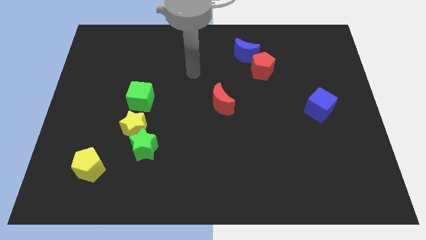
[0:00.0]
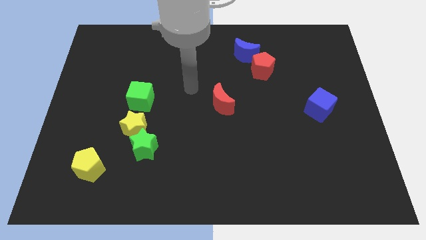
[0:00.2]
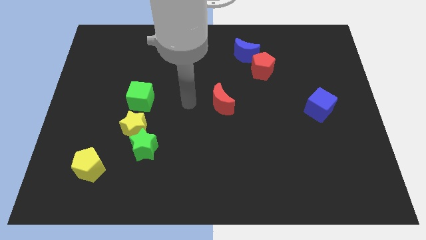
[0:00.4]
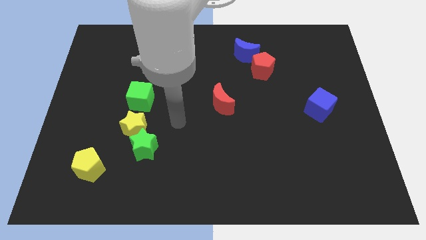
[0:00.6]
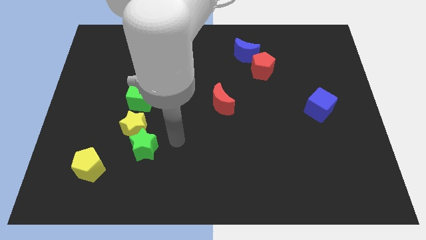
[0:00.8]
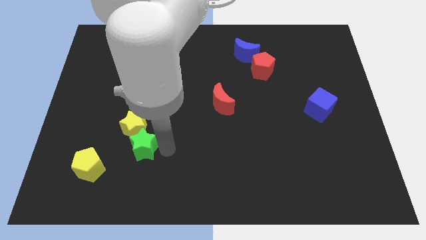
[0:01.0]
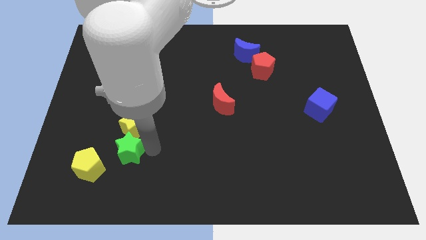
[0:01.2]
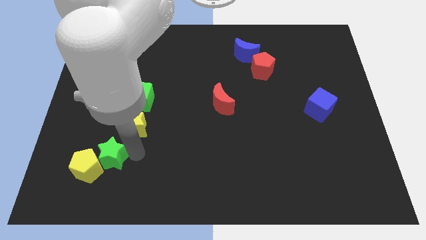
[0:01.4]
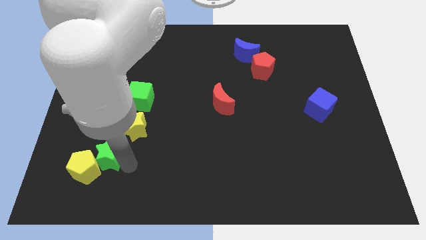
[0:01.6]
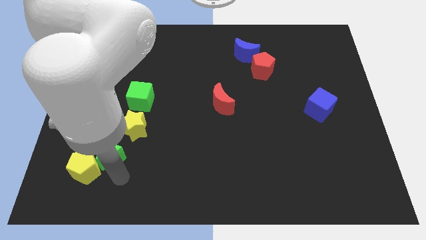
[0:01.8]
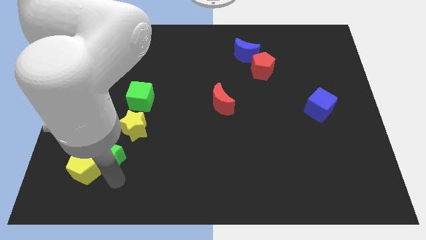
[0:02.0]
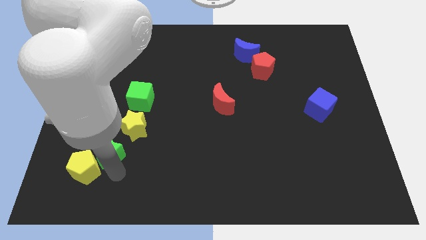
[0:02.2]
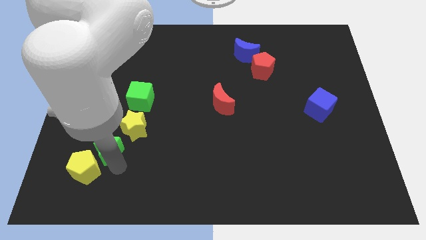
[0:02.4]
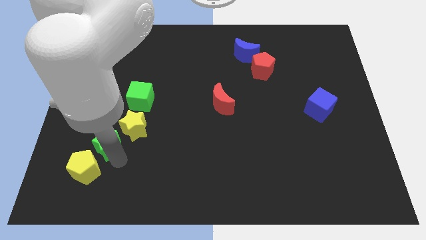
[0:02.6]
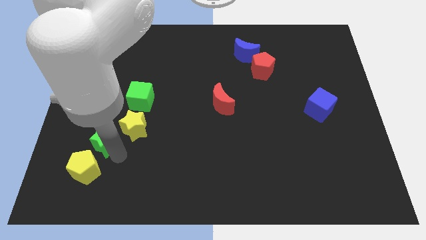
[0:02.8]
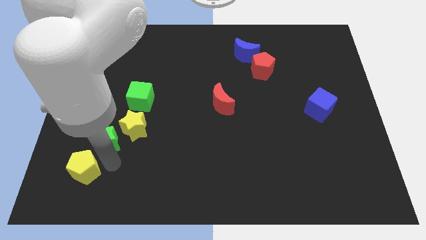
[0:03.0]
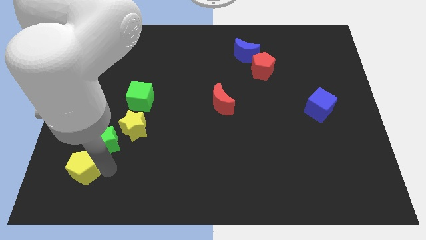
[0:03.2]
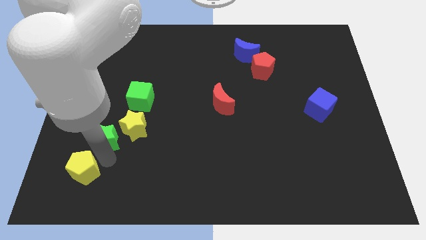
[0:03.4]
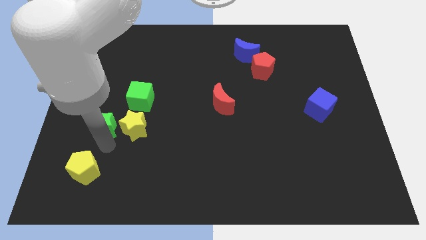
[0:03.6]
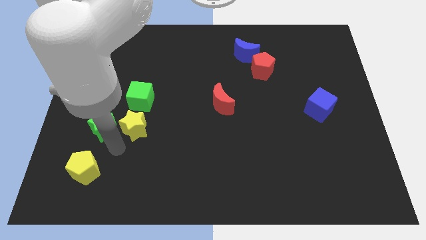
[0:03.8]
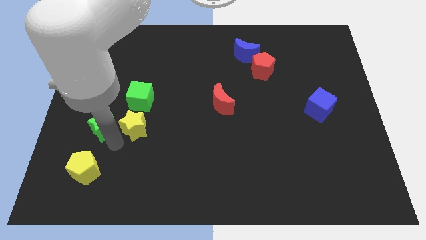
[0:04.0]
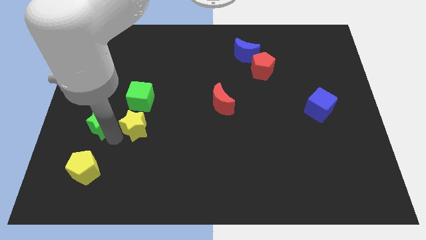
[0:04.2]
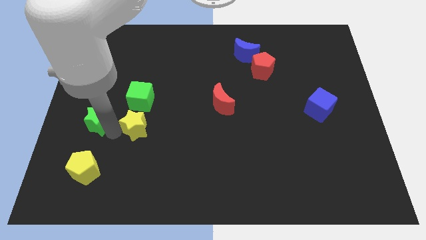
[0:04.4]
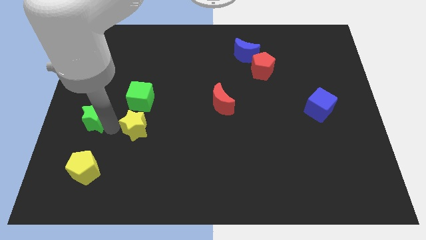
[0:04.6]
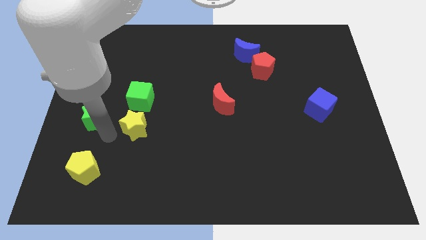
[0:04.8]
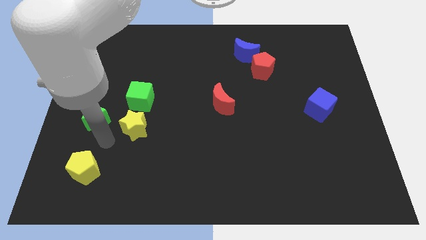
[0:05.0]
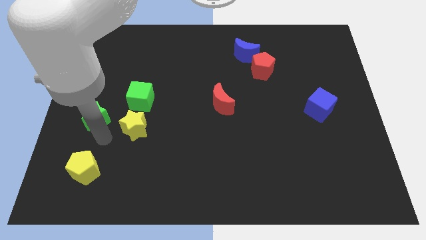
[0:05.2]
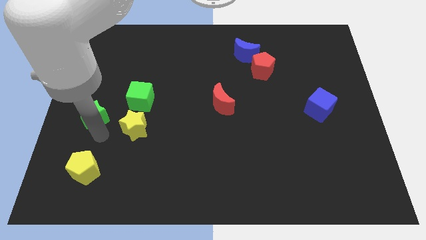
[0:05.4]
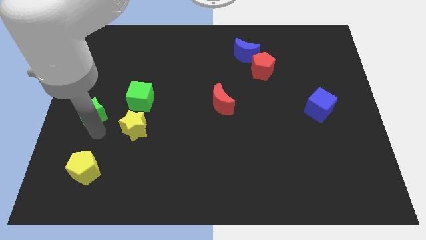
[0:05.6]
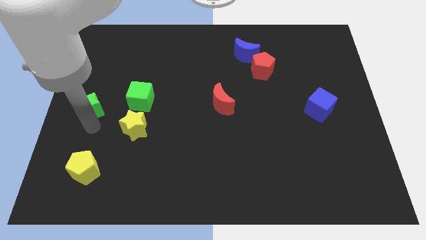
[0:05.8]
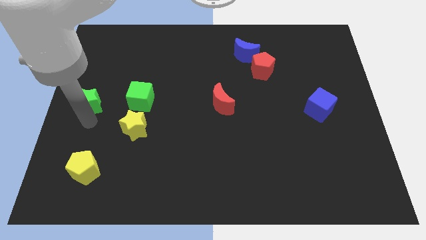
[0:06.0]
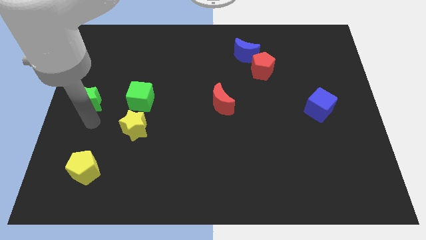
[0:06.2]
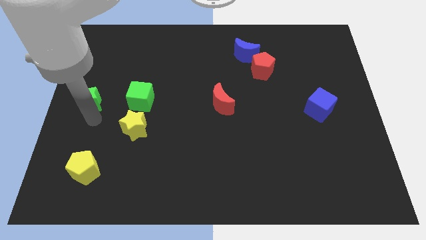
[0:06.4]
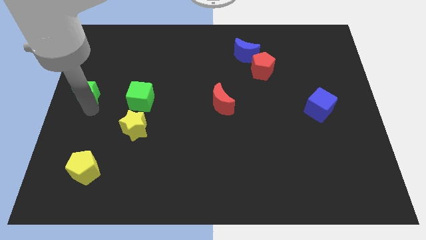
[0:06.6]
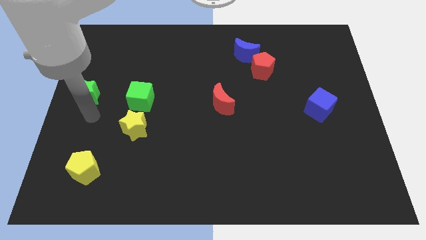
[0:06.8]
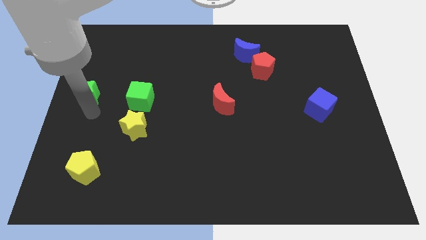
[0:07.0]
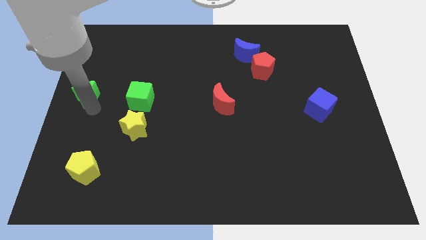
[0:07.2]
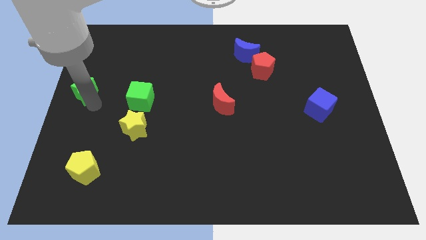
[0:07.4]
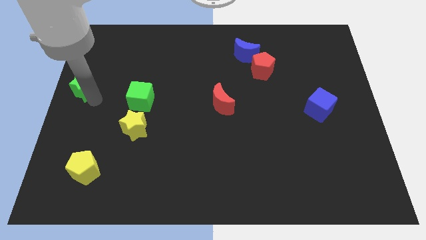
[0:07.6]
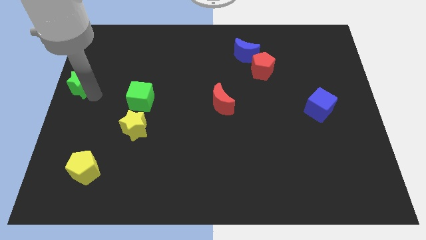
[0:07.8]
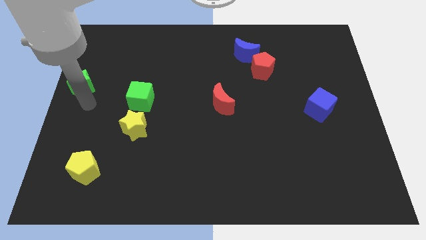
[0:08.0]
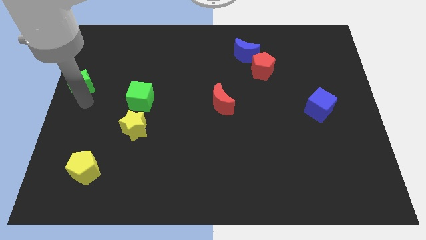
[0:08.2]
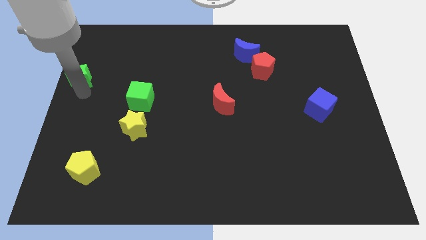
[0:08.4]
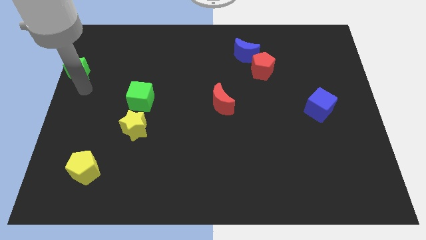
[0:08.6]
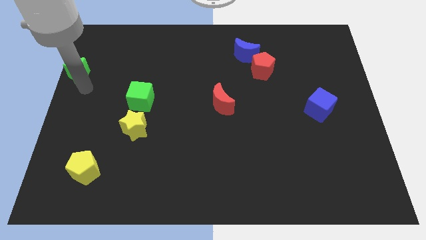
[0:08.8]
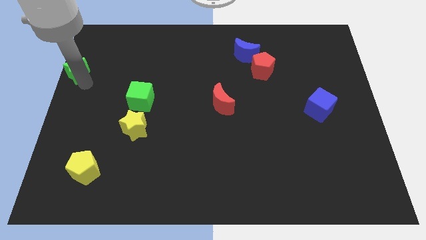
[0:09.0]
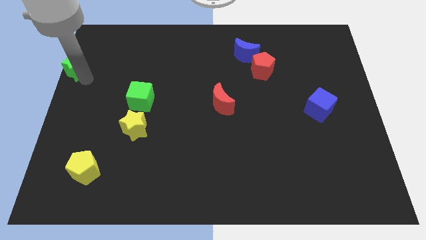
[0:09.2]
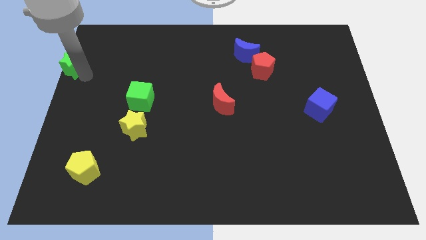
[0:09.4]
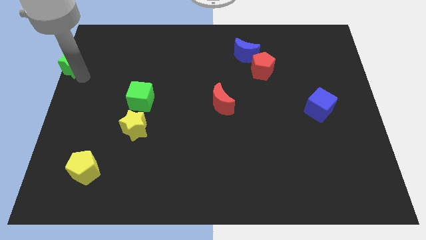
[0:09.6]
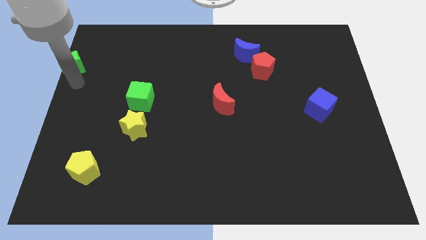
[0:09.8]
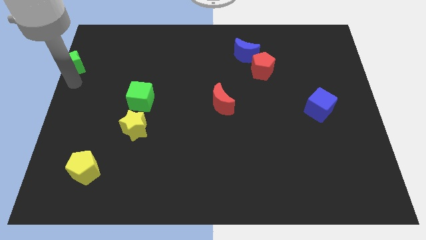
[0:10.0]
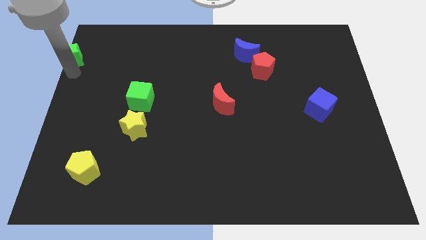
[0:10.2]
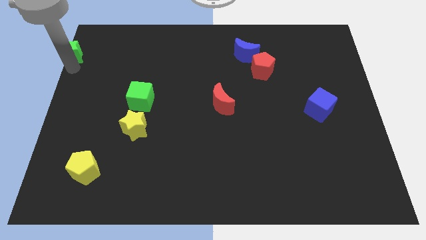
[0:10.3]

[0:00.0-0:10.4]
put the green star to the top left corner

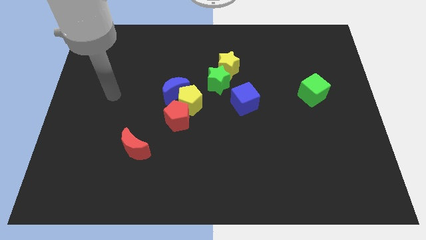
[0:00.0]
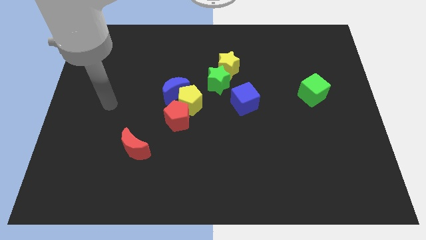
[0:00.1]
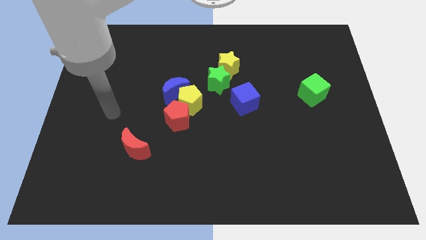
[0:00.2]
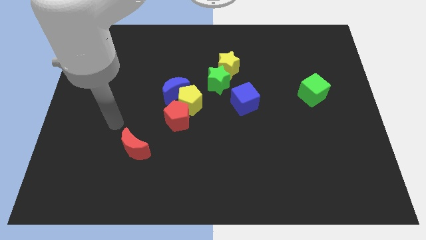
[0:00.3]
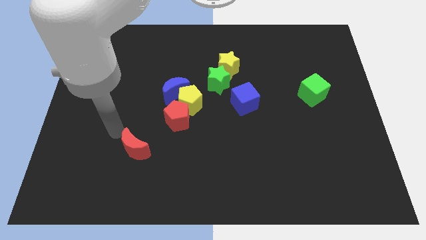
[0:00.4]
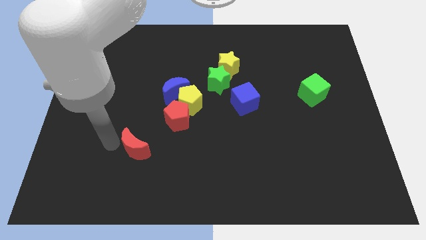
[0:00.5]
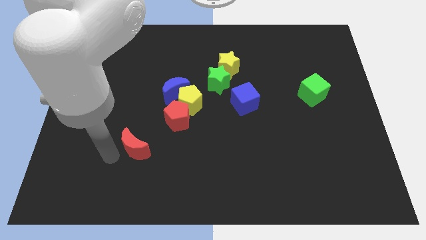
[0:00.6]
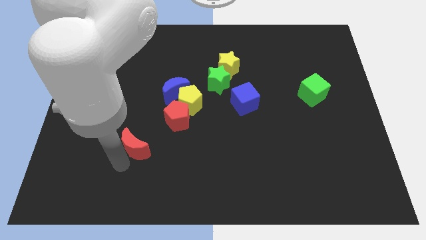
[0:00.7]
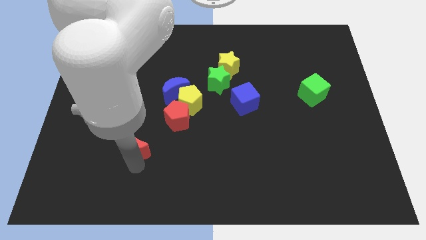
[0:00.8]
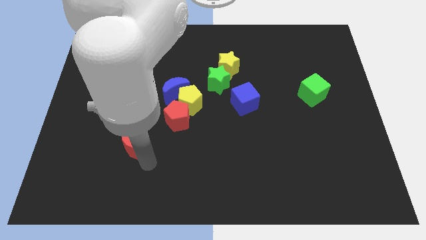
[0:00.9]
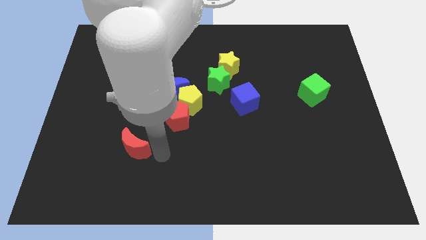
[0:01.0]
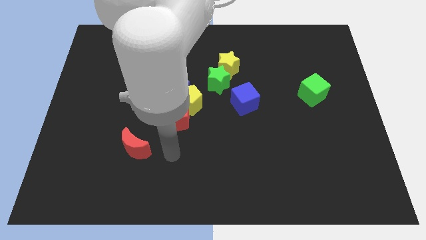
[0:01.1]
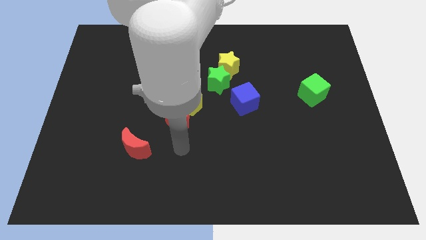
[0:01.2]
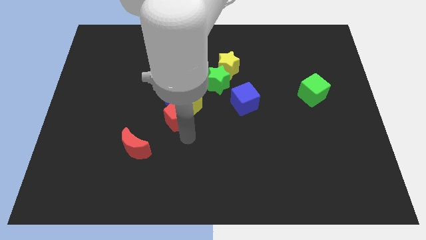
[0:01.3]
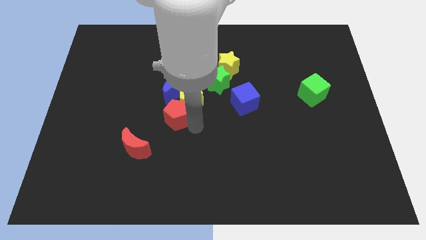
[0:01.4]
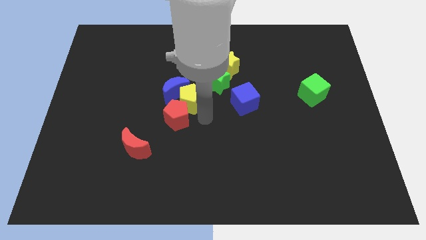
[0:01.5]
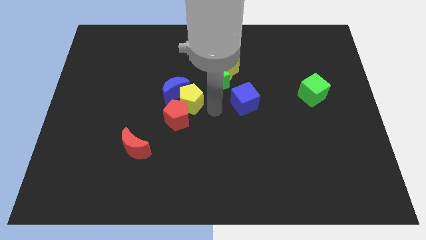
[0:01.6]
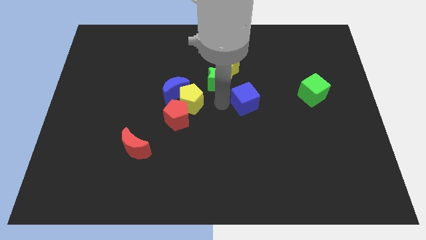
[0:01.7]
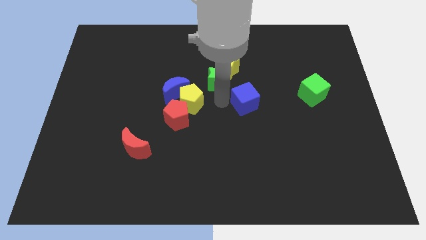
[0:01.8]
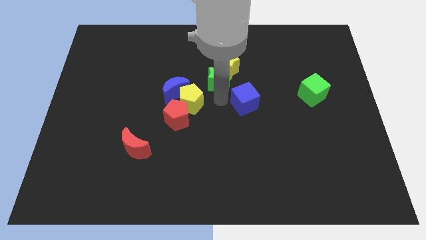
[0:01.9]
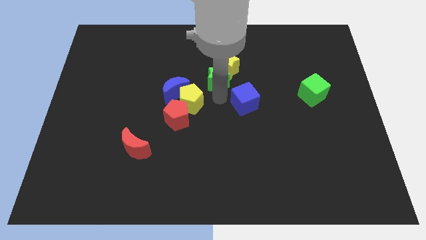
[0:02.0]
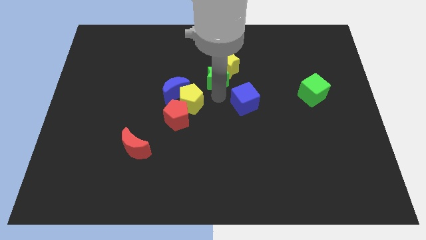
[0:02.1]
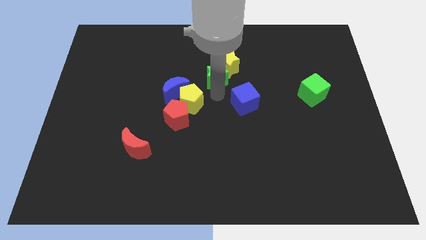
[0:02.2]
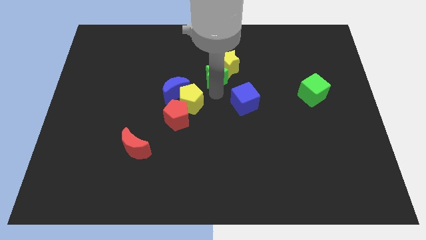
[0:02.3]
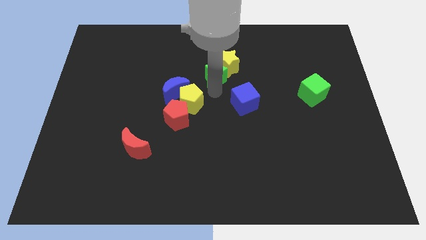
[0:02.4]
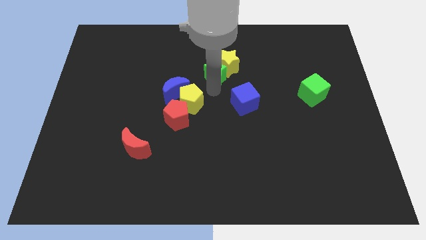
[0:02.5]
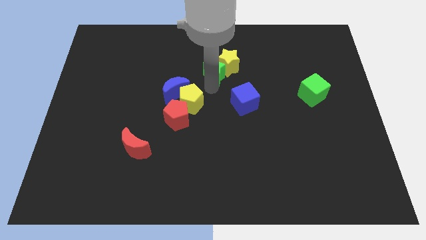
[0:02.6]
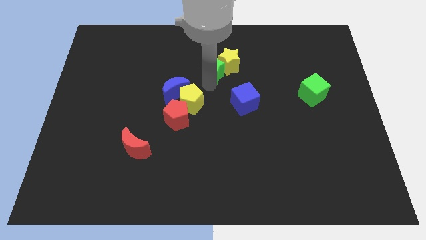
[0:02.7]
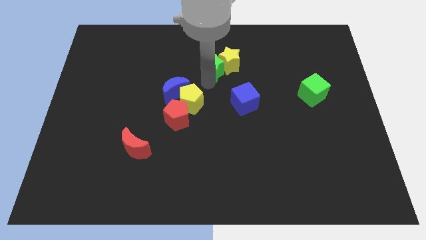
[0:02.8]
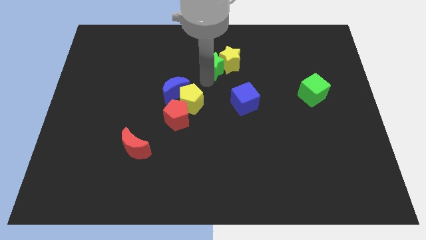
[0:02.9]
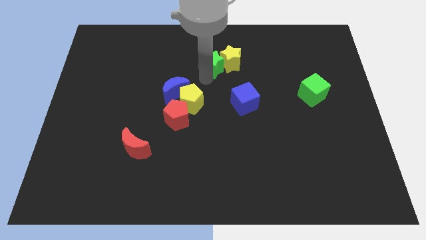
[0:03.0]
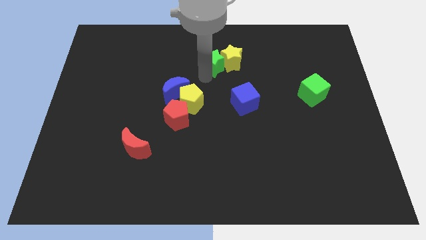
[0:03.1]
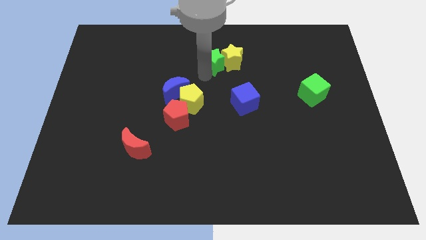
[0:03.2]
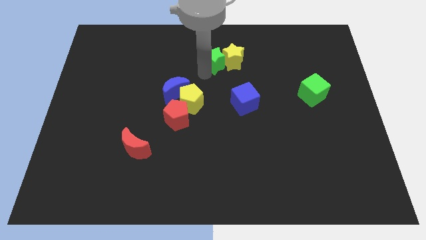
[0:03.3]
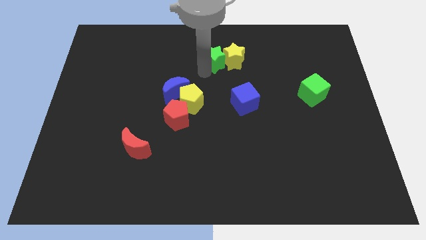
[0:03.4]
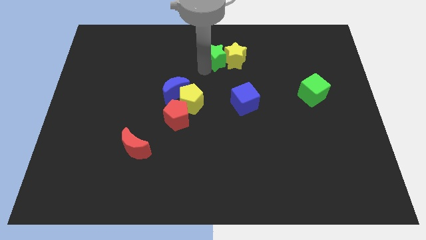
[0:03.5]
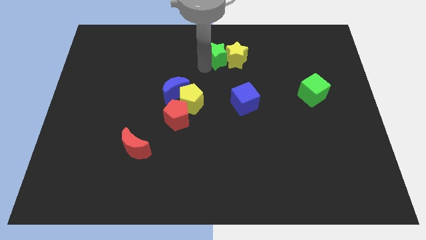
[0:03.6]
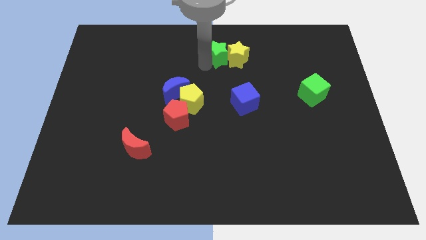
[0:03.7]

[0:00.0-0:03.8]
push the green star to the top side
